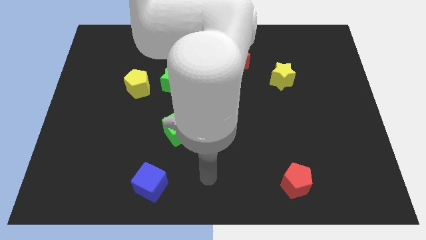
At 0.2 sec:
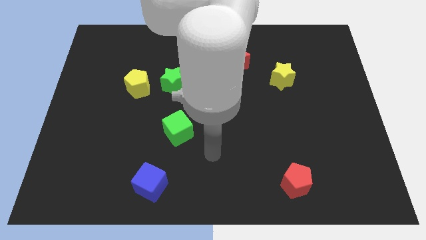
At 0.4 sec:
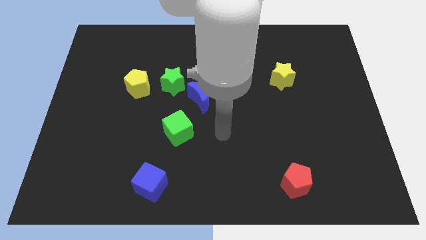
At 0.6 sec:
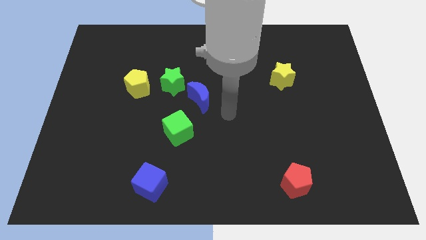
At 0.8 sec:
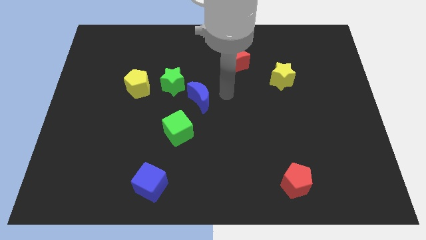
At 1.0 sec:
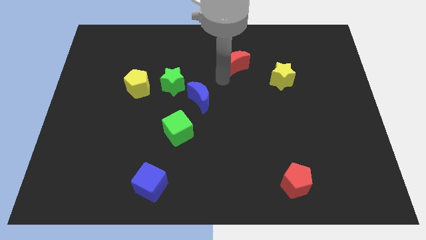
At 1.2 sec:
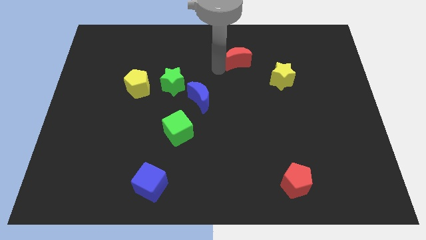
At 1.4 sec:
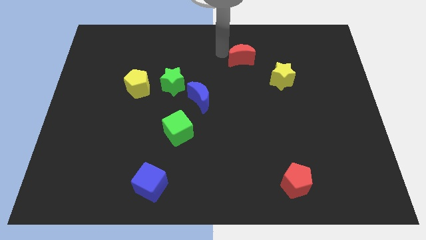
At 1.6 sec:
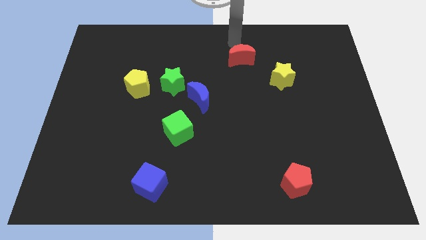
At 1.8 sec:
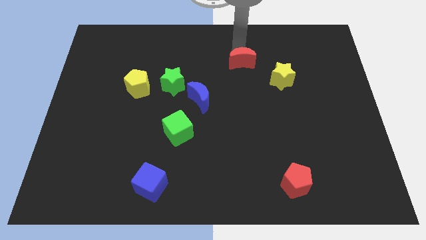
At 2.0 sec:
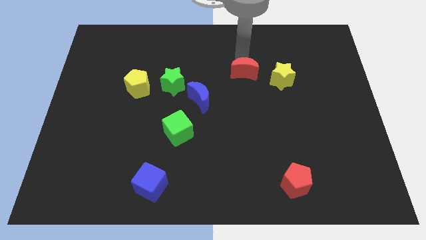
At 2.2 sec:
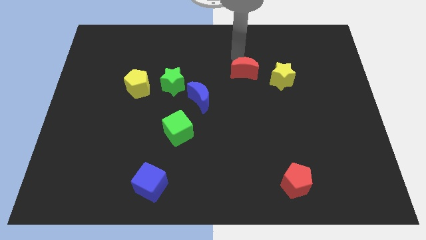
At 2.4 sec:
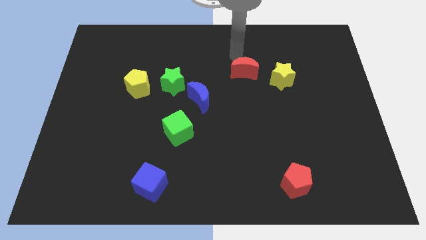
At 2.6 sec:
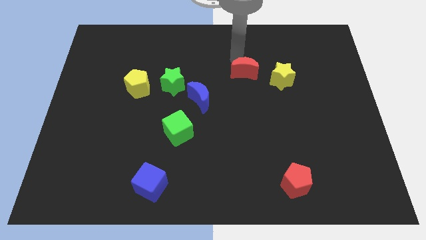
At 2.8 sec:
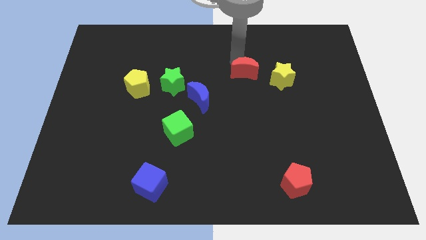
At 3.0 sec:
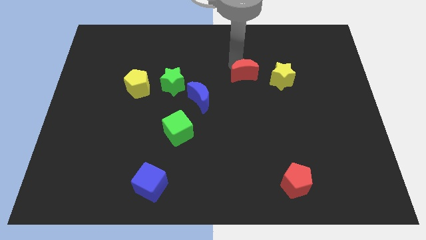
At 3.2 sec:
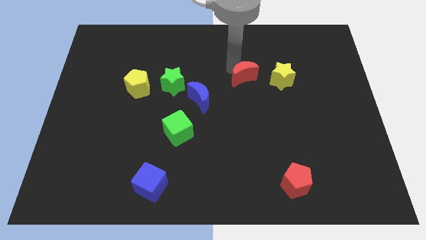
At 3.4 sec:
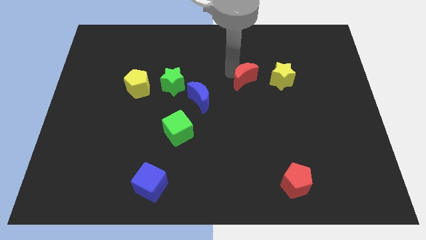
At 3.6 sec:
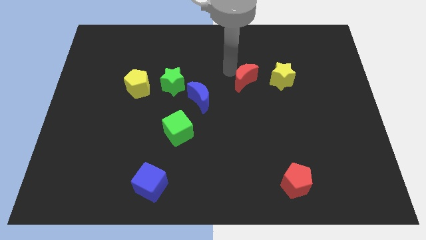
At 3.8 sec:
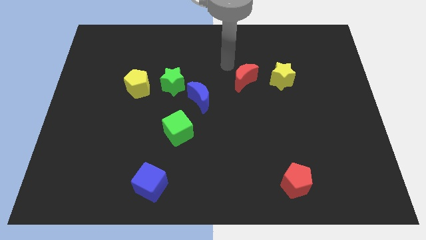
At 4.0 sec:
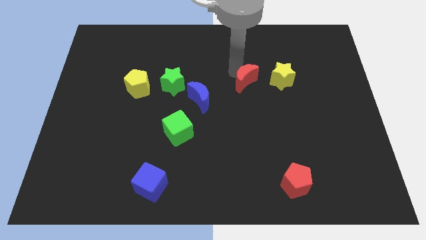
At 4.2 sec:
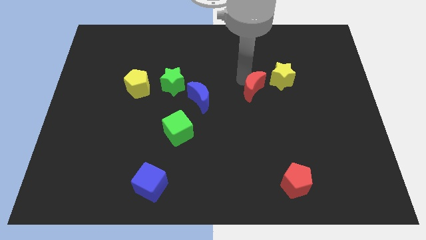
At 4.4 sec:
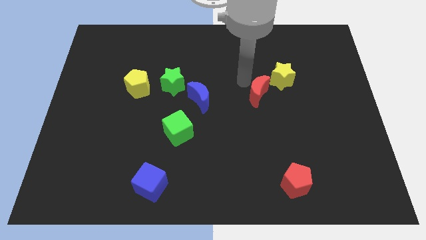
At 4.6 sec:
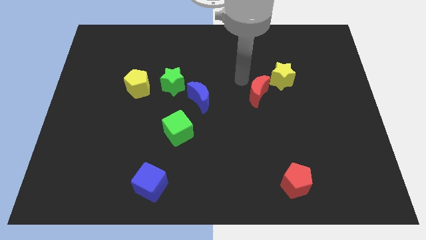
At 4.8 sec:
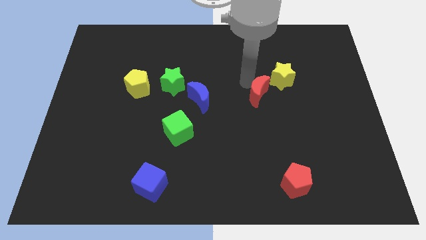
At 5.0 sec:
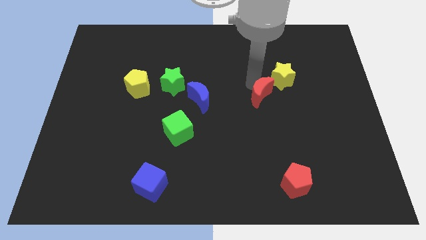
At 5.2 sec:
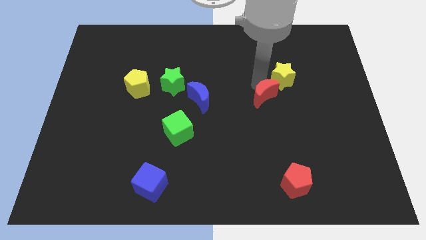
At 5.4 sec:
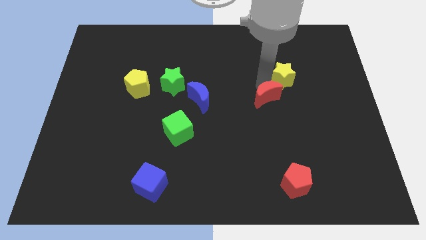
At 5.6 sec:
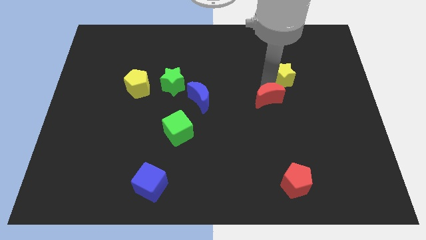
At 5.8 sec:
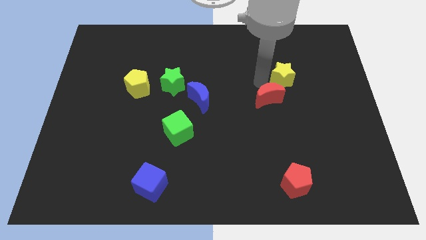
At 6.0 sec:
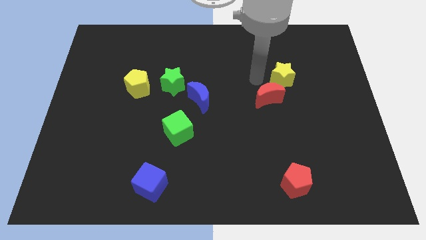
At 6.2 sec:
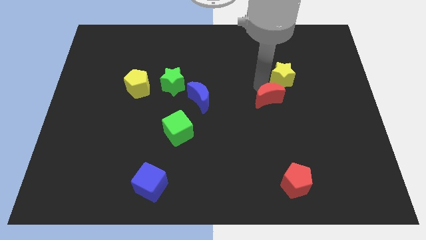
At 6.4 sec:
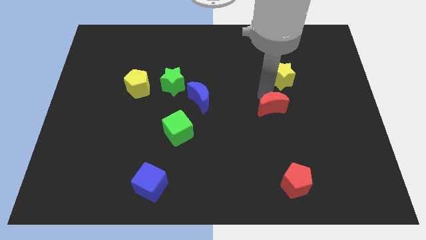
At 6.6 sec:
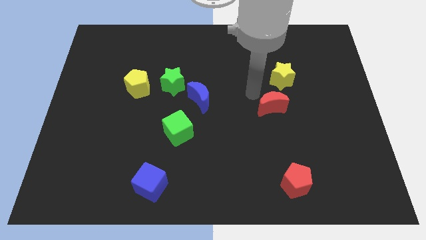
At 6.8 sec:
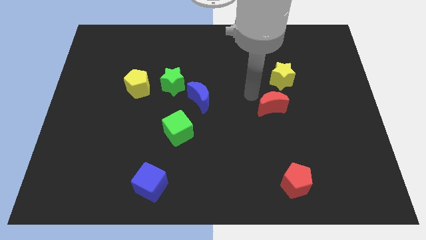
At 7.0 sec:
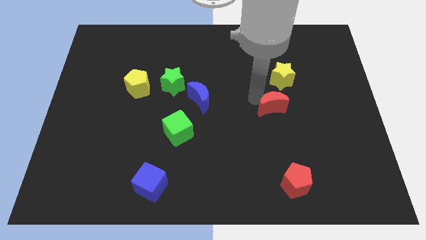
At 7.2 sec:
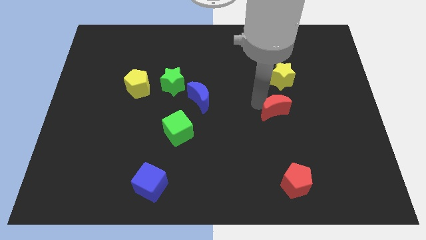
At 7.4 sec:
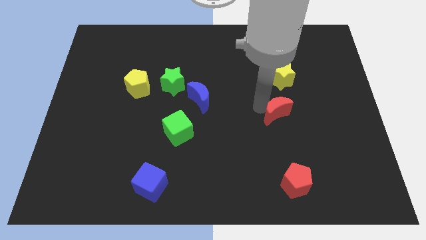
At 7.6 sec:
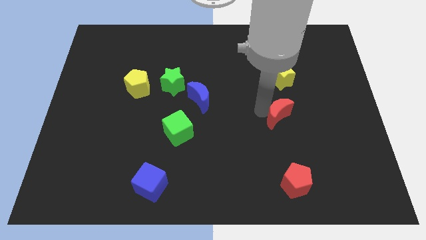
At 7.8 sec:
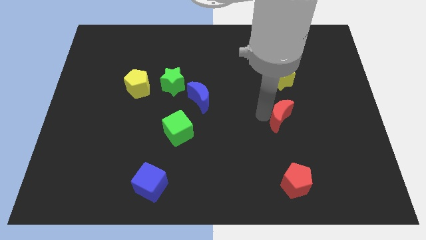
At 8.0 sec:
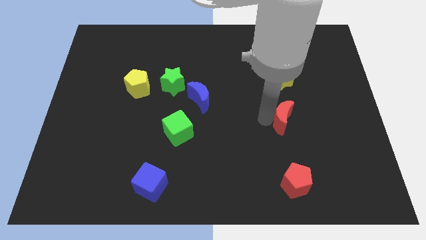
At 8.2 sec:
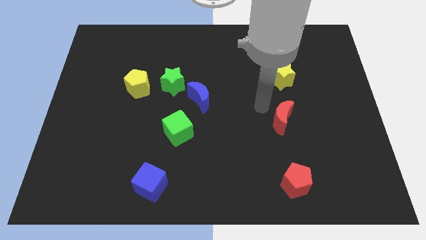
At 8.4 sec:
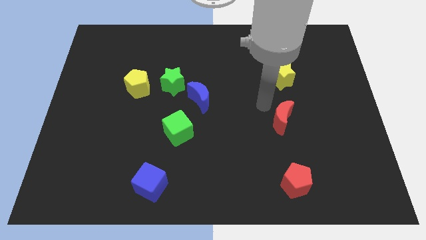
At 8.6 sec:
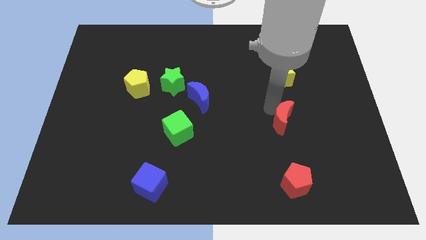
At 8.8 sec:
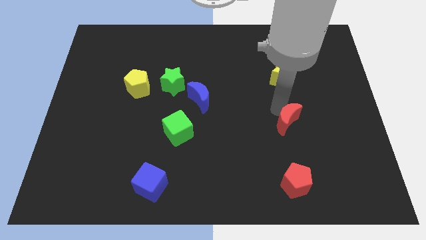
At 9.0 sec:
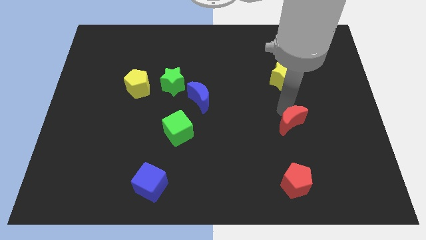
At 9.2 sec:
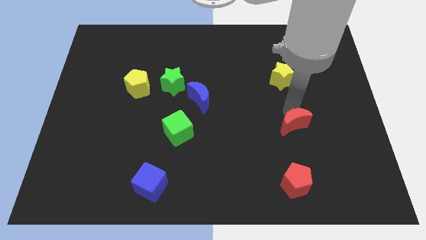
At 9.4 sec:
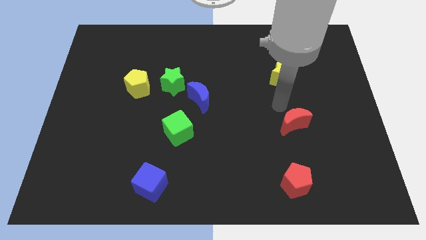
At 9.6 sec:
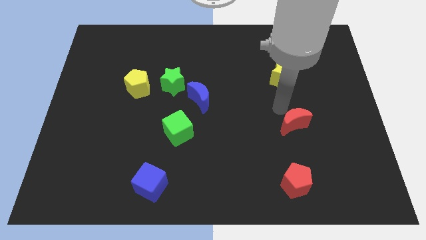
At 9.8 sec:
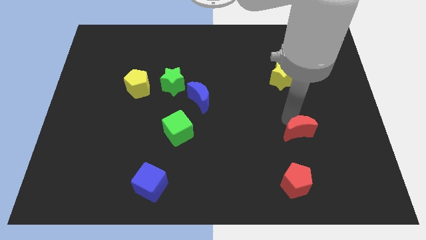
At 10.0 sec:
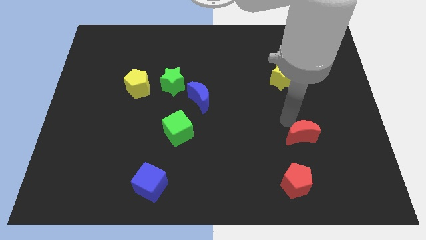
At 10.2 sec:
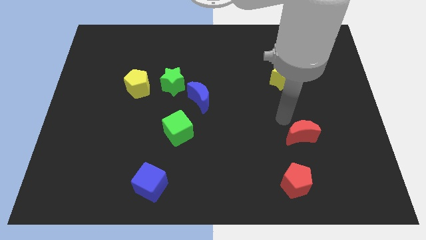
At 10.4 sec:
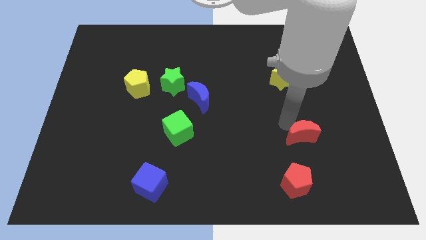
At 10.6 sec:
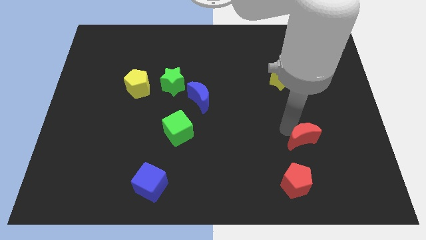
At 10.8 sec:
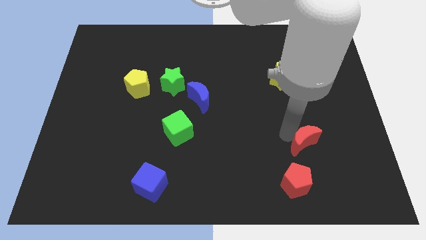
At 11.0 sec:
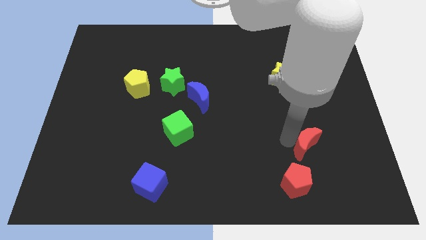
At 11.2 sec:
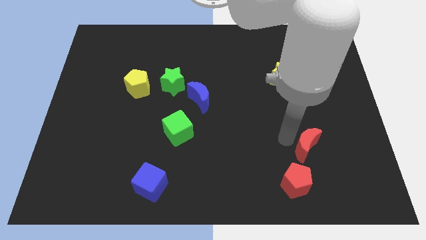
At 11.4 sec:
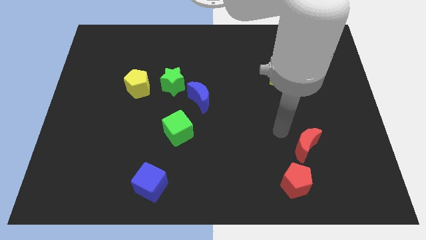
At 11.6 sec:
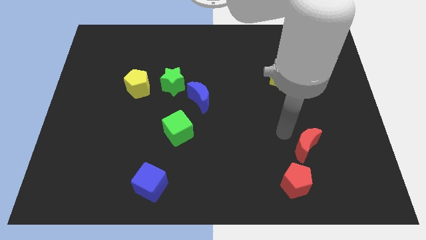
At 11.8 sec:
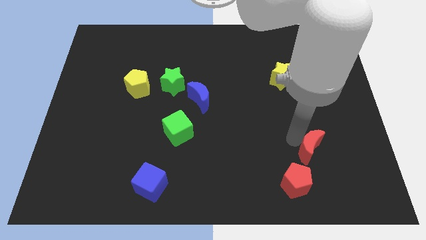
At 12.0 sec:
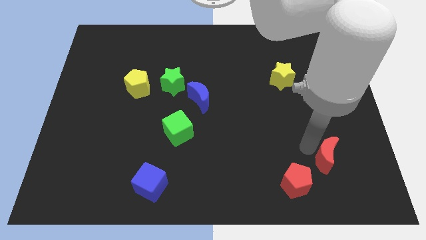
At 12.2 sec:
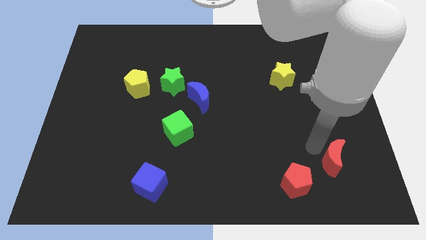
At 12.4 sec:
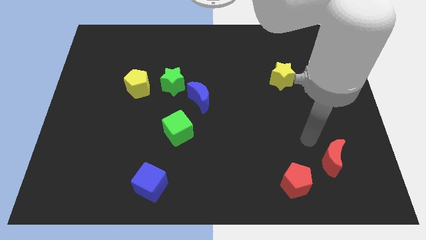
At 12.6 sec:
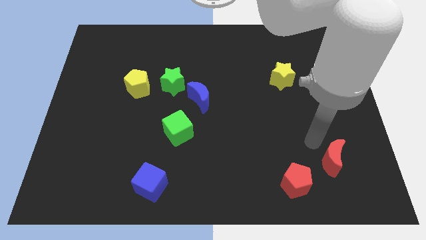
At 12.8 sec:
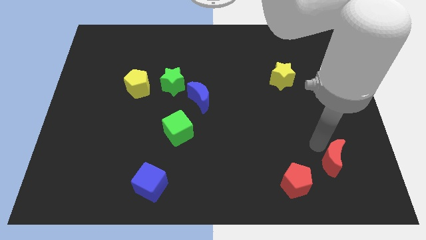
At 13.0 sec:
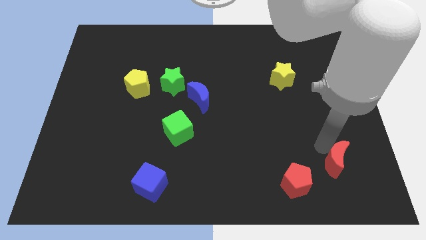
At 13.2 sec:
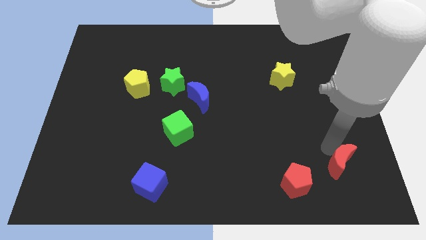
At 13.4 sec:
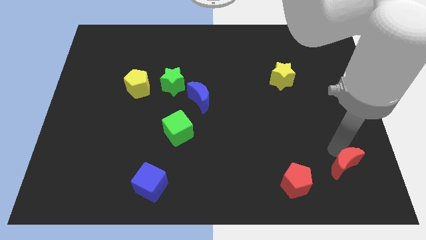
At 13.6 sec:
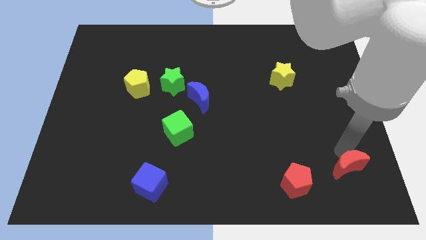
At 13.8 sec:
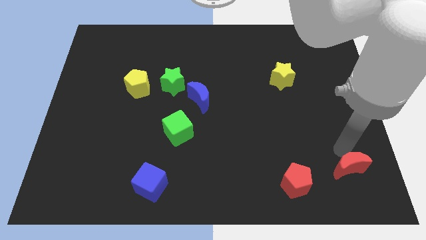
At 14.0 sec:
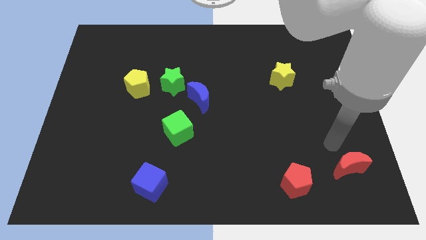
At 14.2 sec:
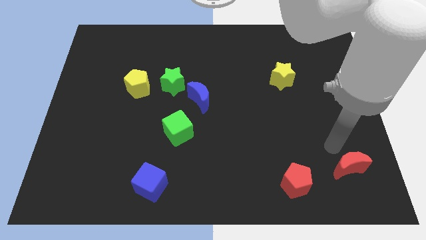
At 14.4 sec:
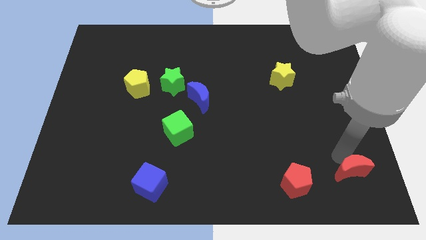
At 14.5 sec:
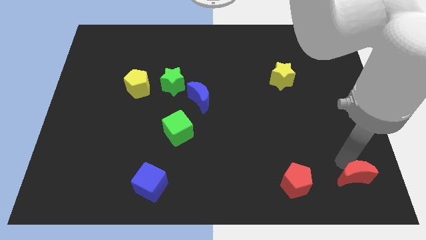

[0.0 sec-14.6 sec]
put the red moon to the lower right corner

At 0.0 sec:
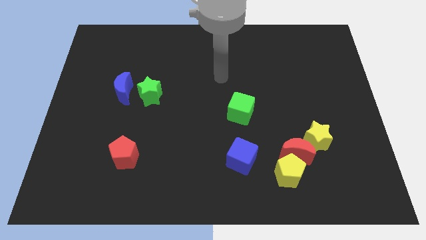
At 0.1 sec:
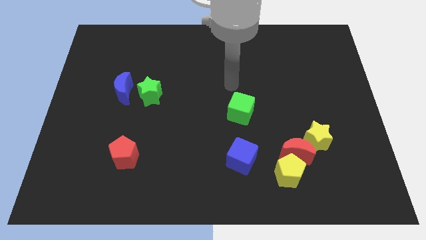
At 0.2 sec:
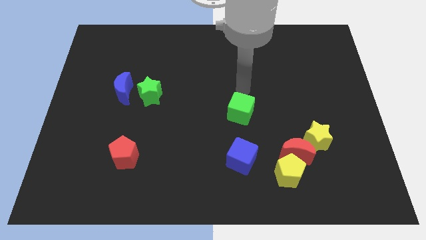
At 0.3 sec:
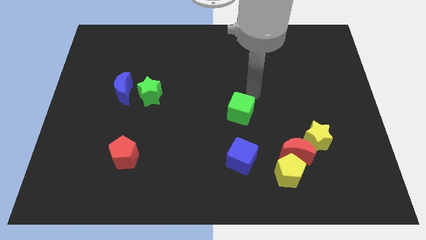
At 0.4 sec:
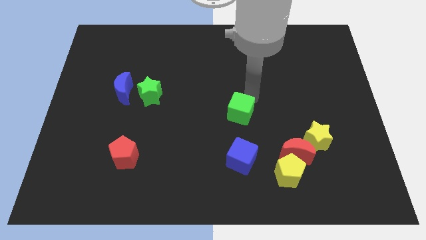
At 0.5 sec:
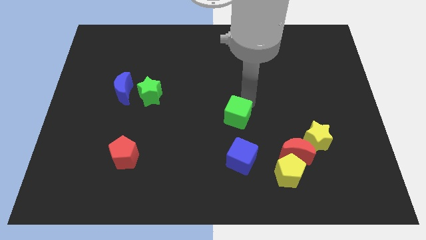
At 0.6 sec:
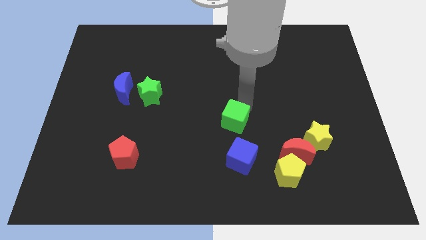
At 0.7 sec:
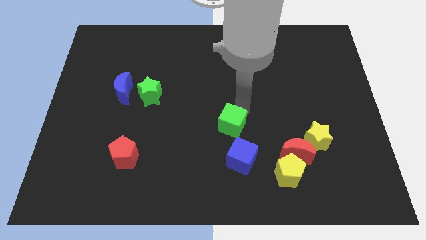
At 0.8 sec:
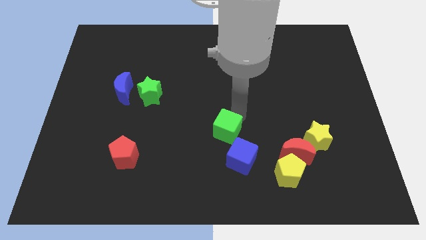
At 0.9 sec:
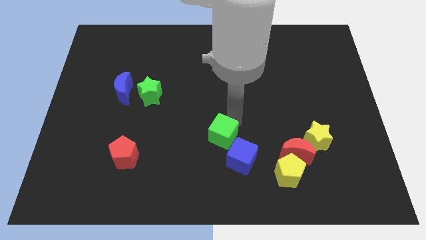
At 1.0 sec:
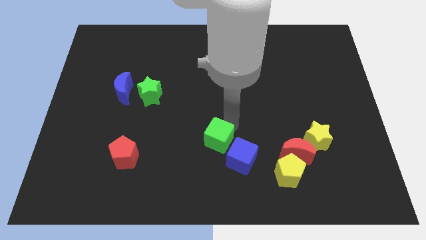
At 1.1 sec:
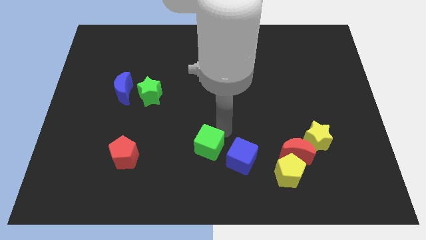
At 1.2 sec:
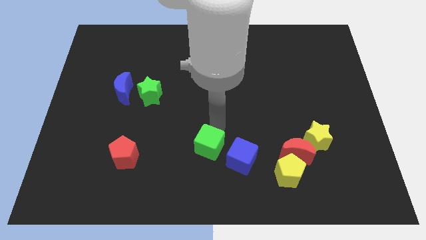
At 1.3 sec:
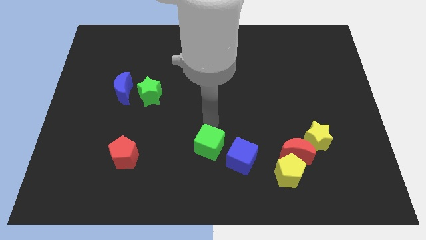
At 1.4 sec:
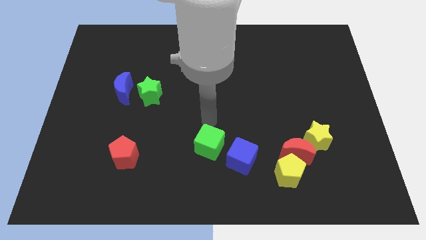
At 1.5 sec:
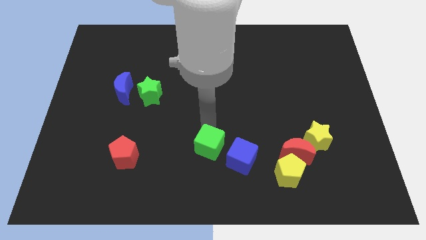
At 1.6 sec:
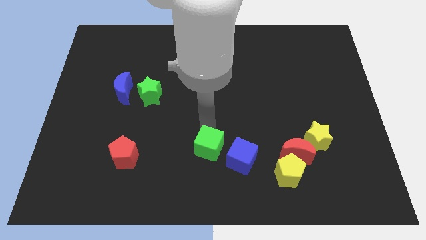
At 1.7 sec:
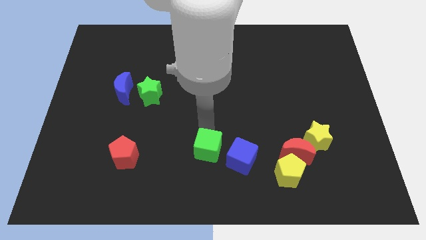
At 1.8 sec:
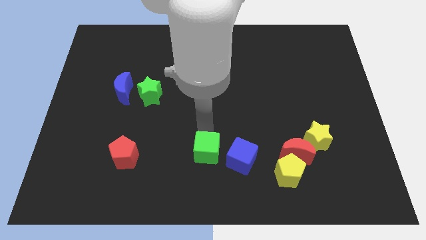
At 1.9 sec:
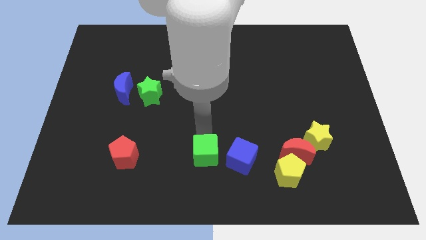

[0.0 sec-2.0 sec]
put the green cube to the bottom
